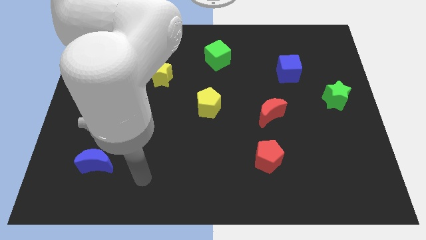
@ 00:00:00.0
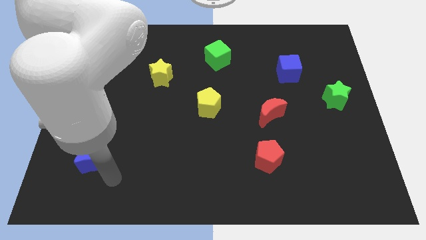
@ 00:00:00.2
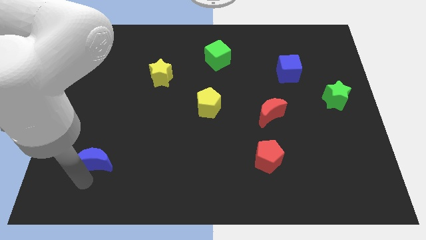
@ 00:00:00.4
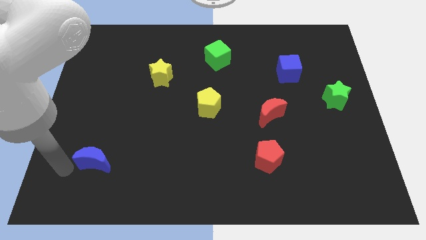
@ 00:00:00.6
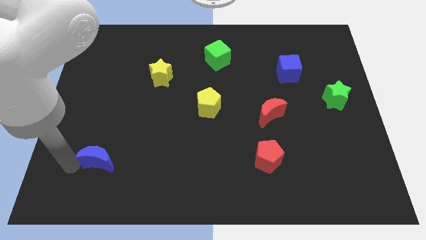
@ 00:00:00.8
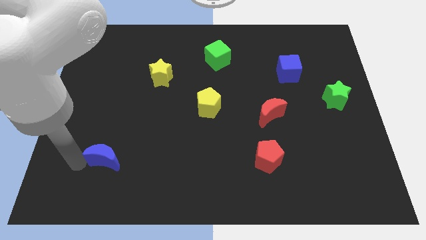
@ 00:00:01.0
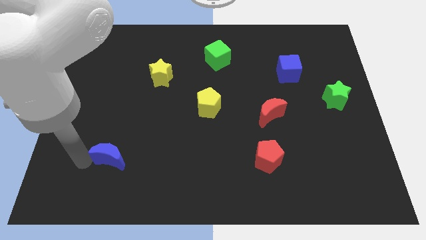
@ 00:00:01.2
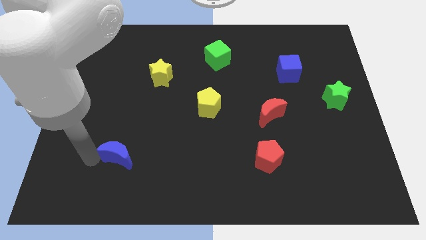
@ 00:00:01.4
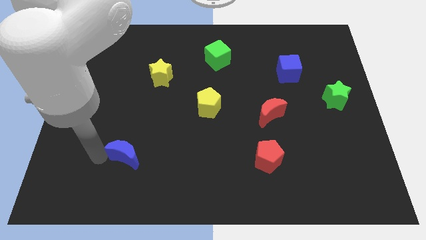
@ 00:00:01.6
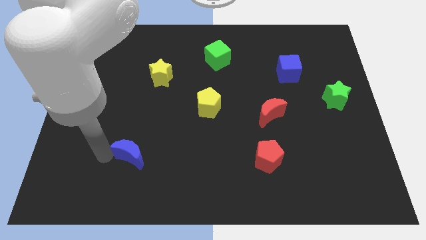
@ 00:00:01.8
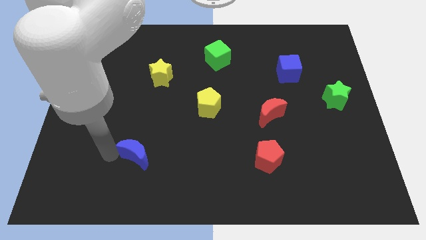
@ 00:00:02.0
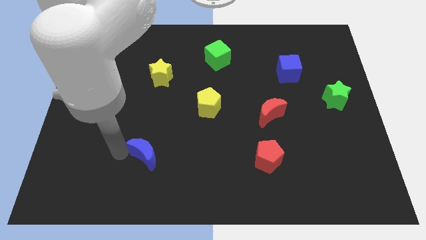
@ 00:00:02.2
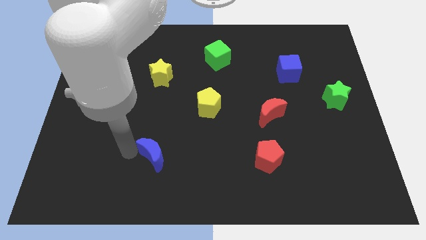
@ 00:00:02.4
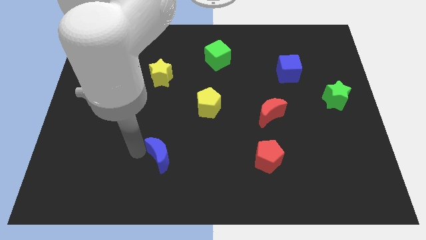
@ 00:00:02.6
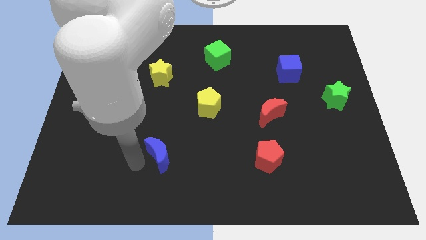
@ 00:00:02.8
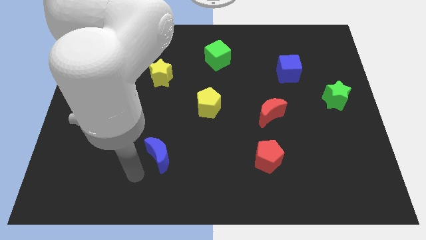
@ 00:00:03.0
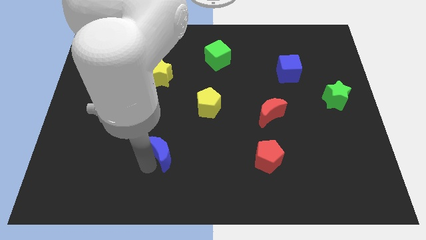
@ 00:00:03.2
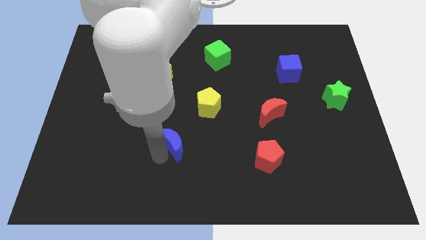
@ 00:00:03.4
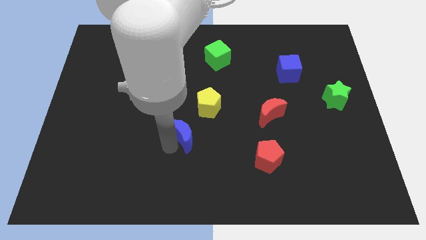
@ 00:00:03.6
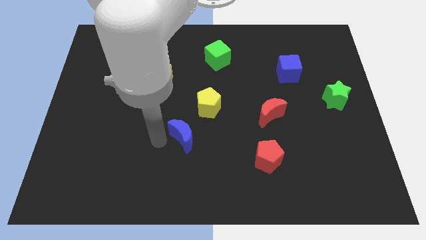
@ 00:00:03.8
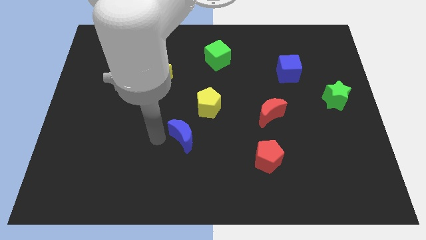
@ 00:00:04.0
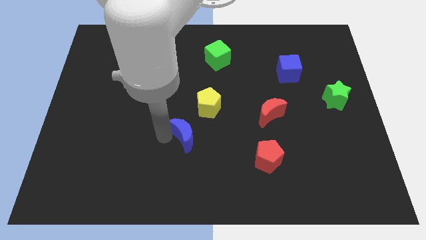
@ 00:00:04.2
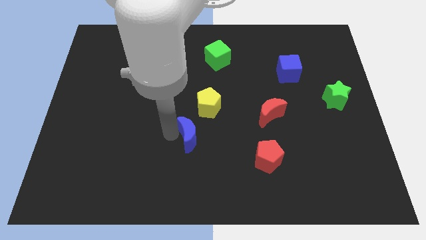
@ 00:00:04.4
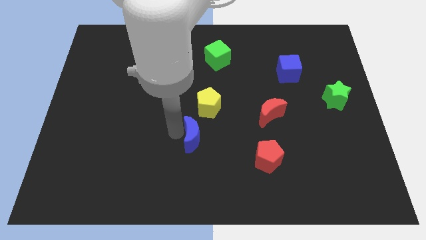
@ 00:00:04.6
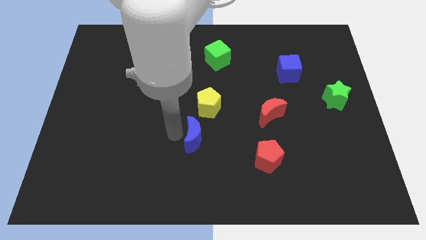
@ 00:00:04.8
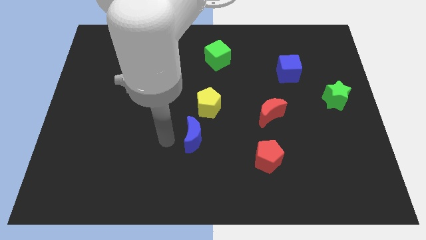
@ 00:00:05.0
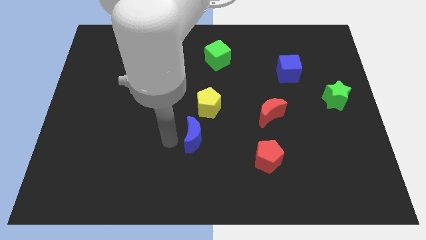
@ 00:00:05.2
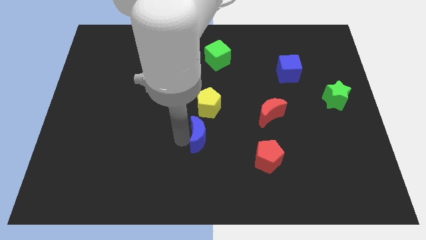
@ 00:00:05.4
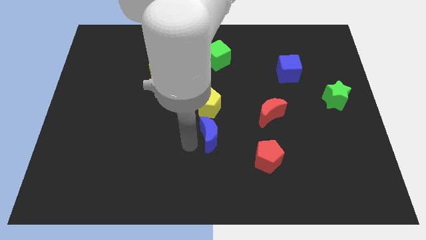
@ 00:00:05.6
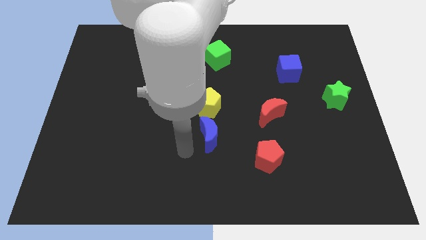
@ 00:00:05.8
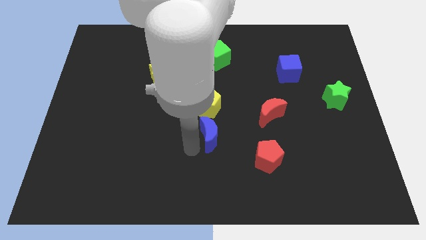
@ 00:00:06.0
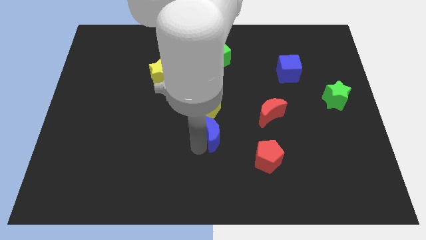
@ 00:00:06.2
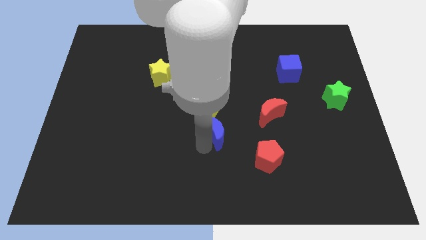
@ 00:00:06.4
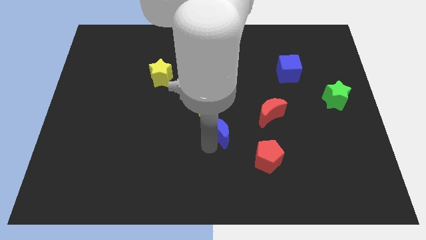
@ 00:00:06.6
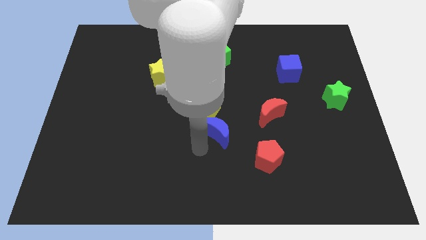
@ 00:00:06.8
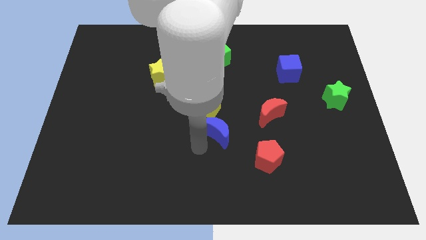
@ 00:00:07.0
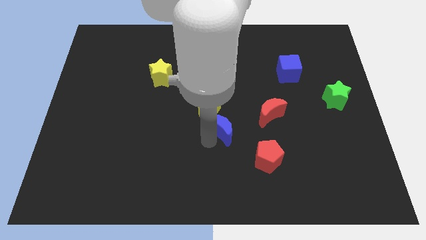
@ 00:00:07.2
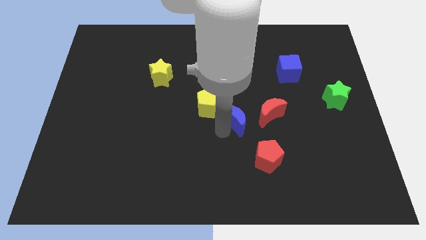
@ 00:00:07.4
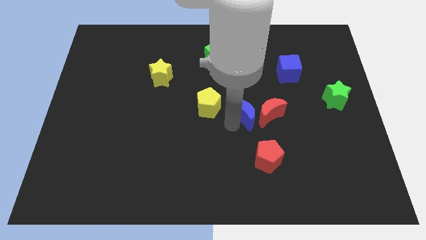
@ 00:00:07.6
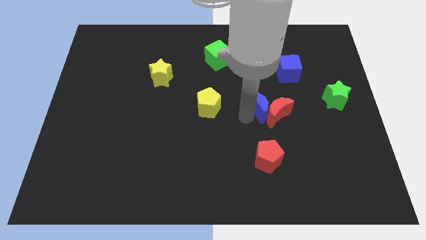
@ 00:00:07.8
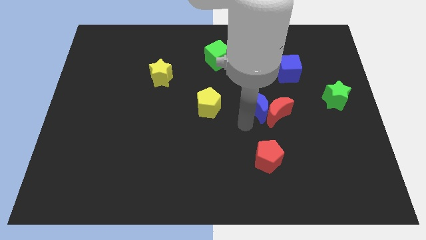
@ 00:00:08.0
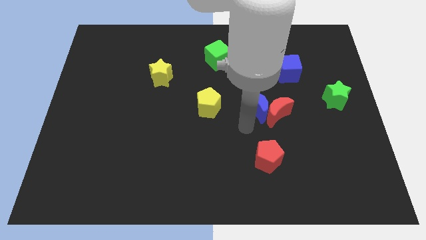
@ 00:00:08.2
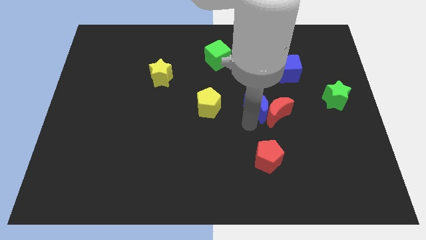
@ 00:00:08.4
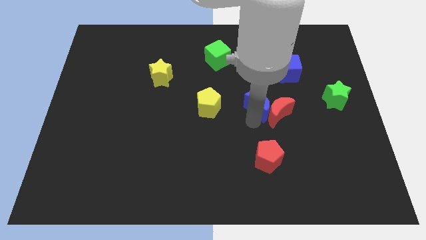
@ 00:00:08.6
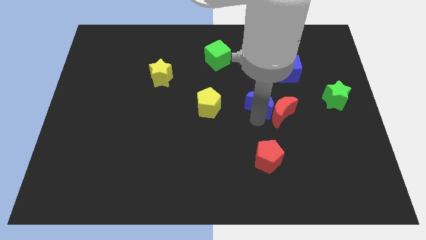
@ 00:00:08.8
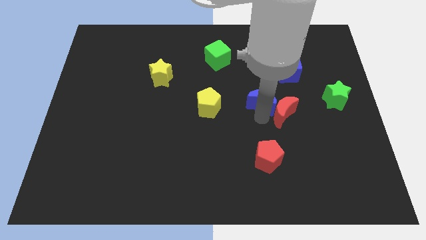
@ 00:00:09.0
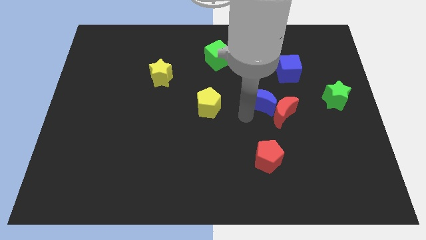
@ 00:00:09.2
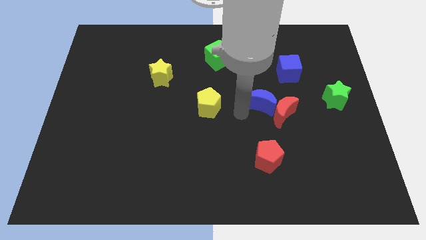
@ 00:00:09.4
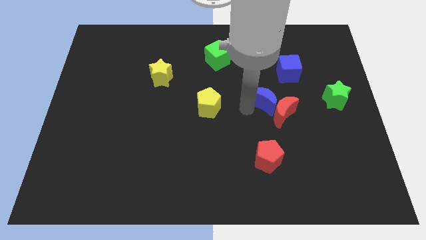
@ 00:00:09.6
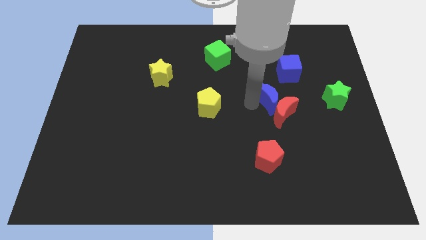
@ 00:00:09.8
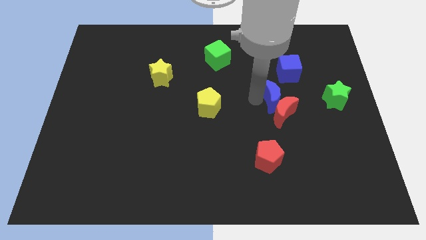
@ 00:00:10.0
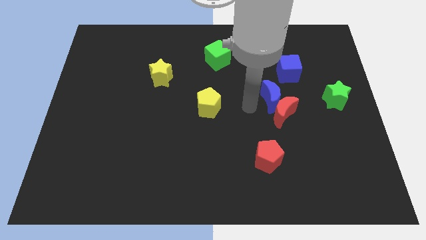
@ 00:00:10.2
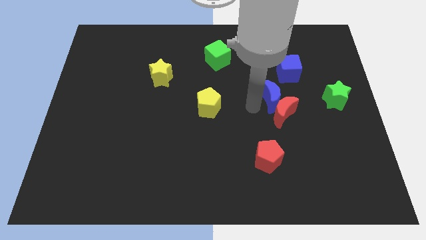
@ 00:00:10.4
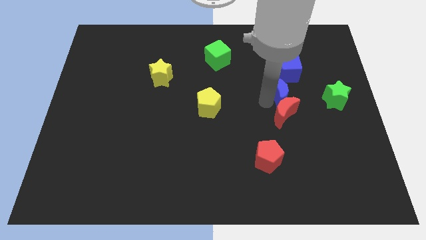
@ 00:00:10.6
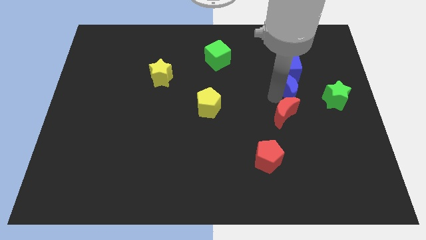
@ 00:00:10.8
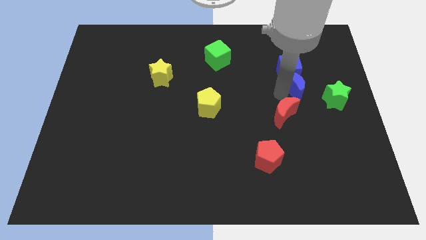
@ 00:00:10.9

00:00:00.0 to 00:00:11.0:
move the blue moon to the top left side of the green star

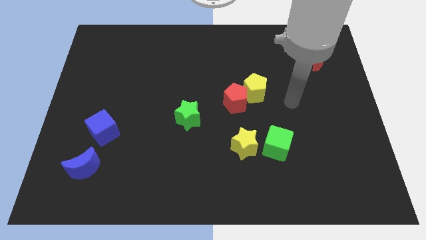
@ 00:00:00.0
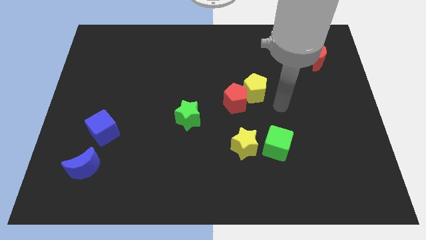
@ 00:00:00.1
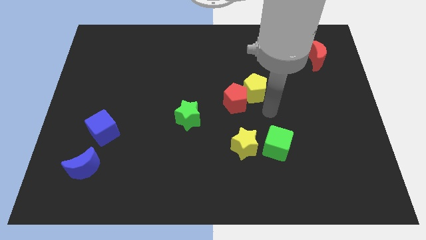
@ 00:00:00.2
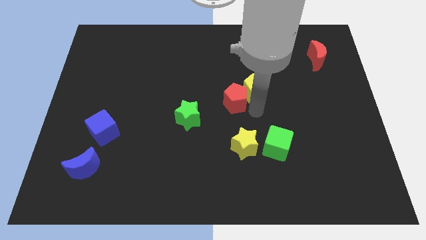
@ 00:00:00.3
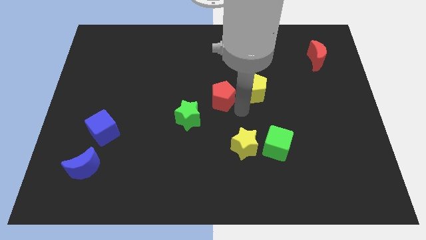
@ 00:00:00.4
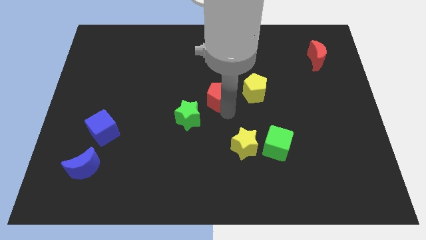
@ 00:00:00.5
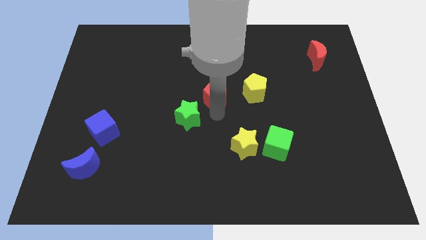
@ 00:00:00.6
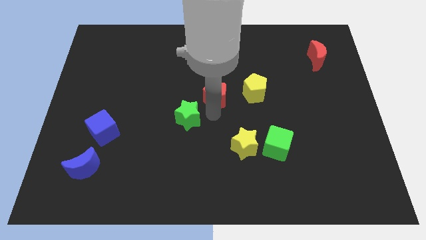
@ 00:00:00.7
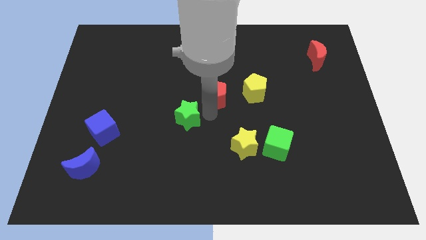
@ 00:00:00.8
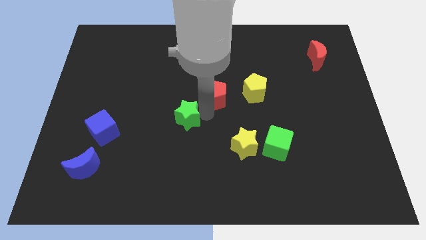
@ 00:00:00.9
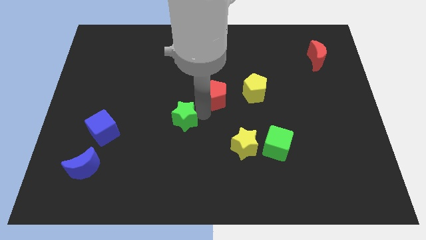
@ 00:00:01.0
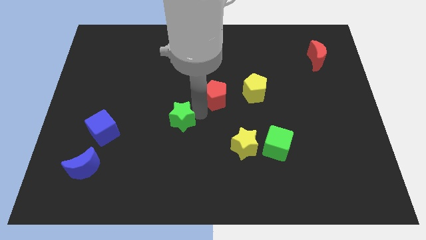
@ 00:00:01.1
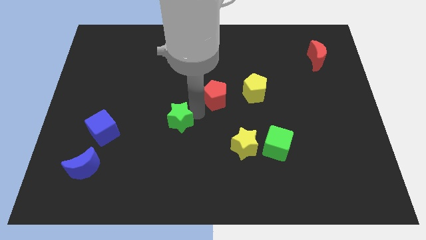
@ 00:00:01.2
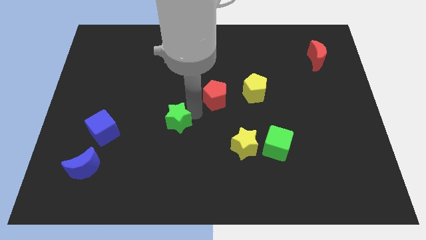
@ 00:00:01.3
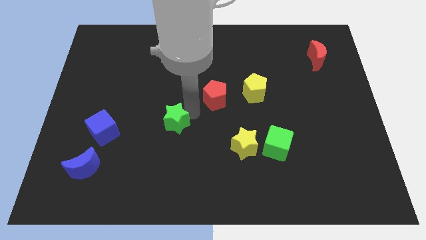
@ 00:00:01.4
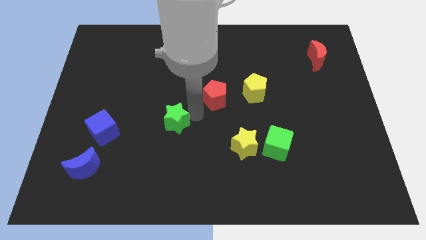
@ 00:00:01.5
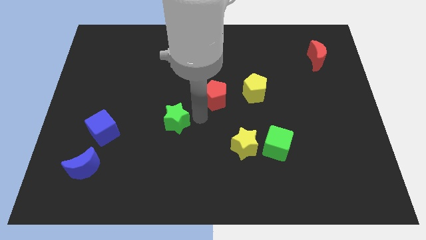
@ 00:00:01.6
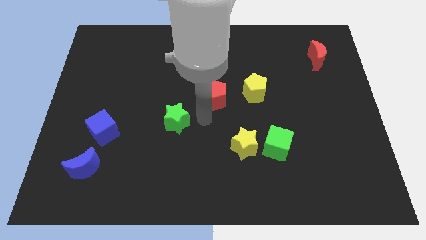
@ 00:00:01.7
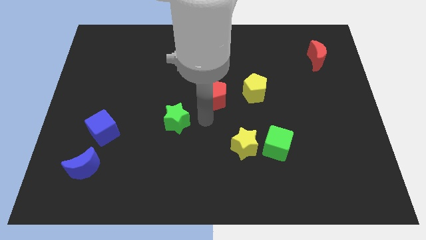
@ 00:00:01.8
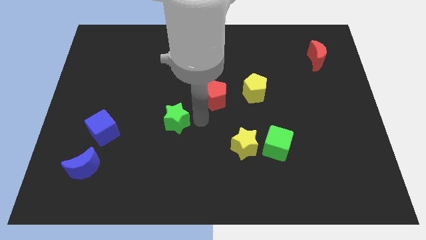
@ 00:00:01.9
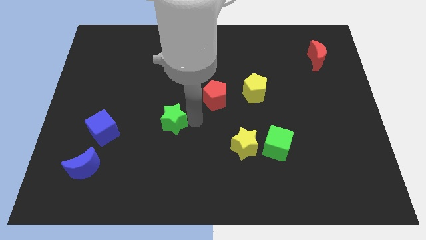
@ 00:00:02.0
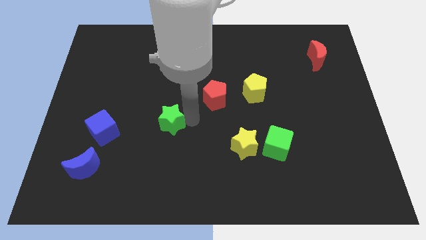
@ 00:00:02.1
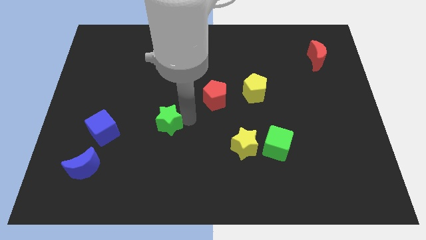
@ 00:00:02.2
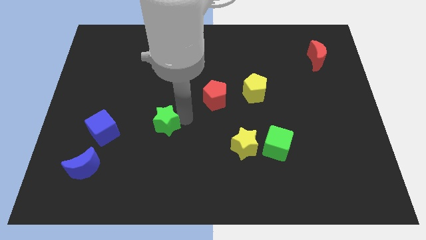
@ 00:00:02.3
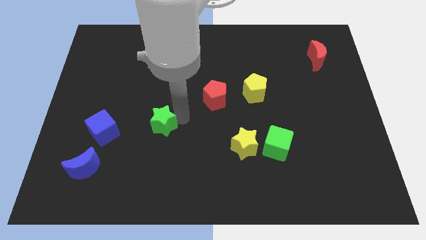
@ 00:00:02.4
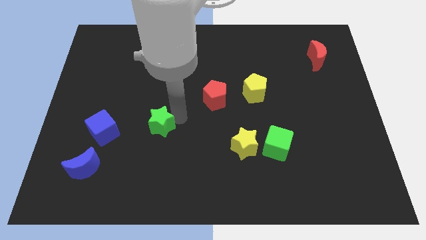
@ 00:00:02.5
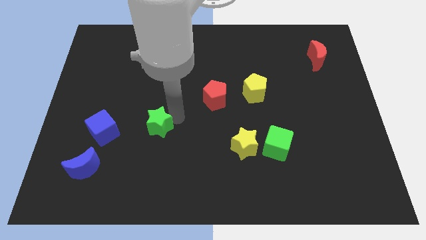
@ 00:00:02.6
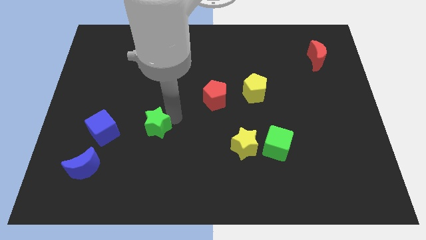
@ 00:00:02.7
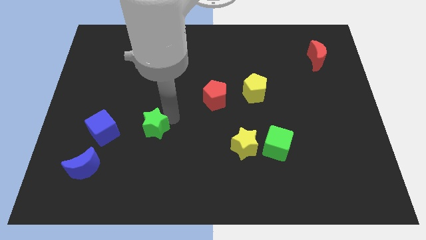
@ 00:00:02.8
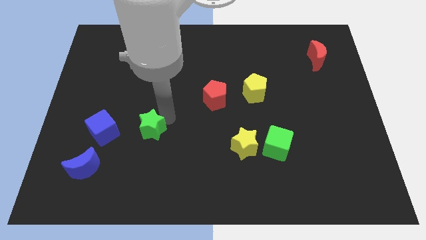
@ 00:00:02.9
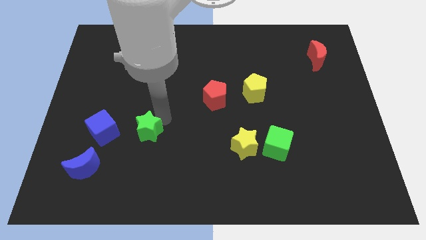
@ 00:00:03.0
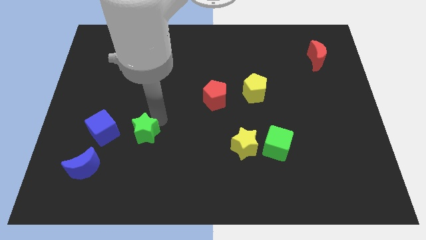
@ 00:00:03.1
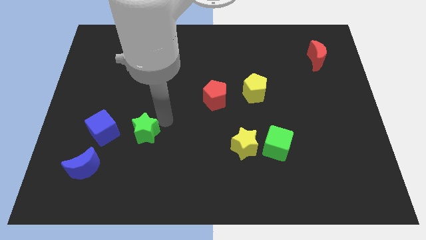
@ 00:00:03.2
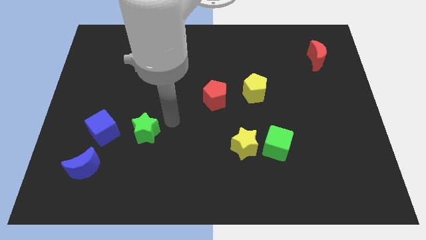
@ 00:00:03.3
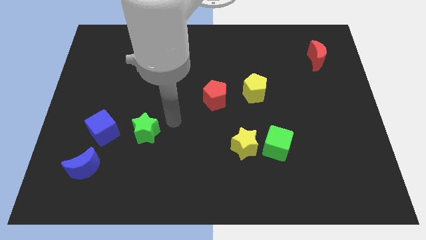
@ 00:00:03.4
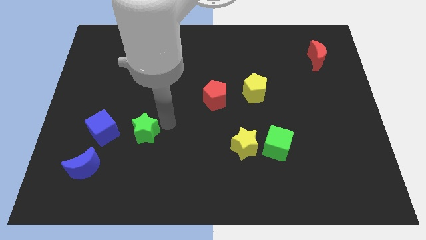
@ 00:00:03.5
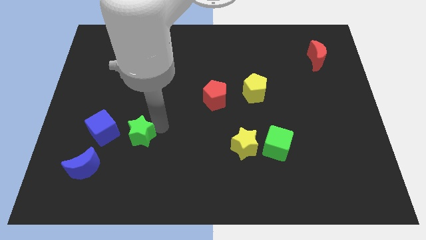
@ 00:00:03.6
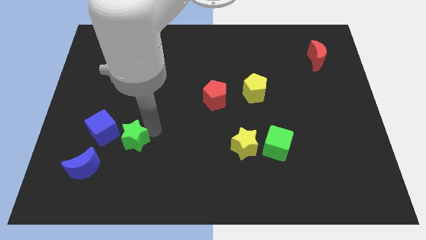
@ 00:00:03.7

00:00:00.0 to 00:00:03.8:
move the green star diagonally up and to the right of the blue moon
